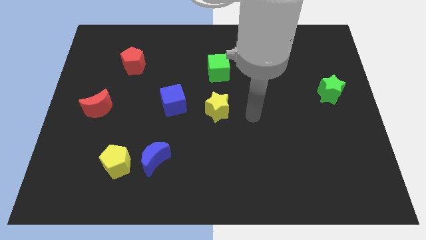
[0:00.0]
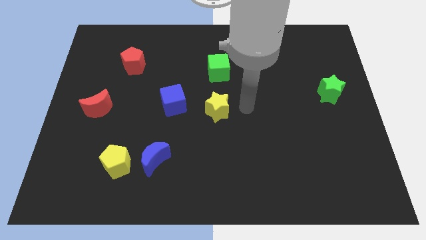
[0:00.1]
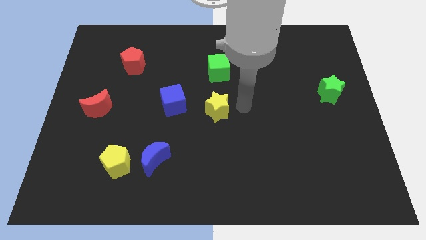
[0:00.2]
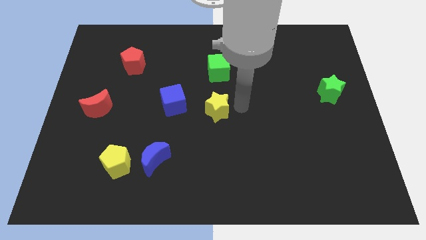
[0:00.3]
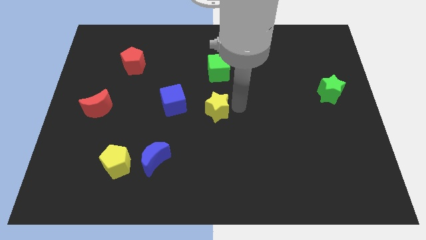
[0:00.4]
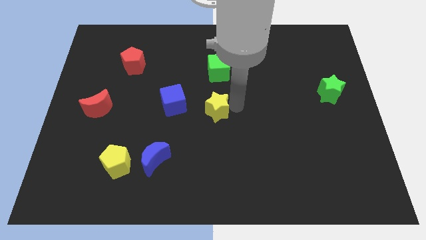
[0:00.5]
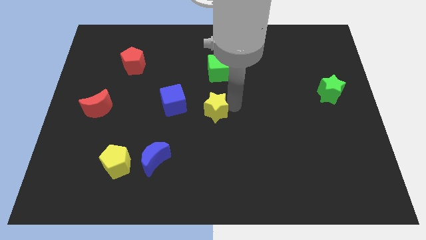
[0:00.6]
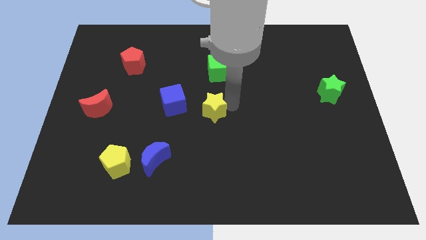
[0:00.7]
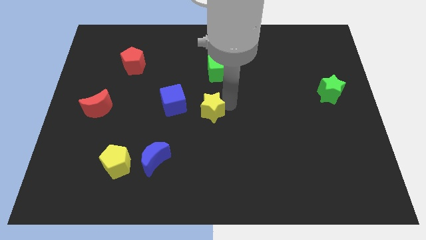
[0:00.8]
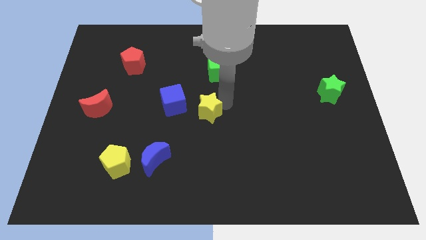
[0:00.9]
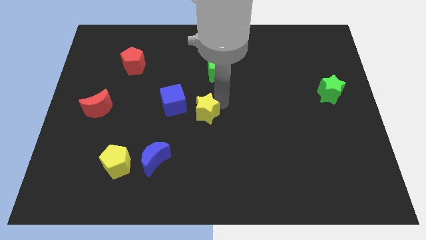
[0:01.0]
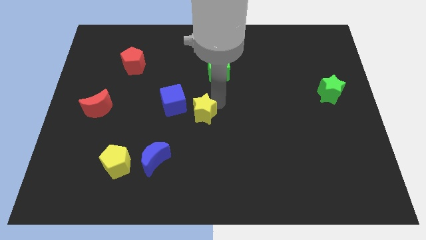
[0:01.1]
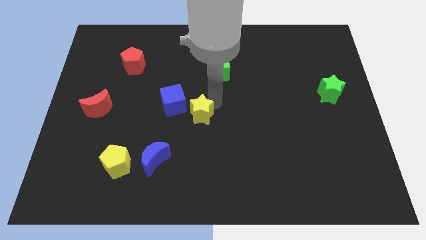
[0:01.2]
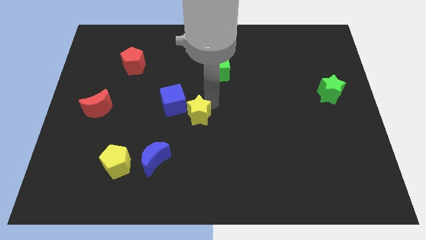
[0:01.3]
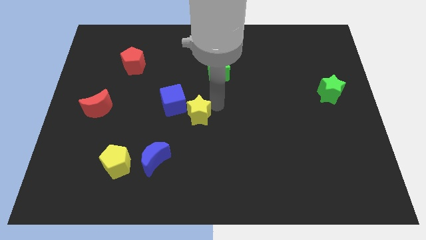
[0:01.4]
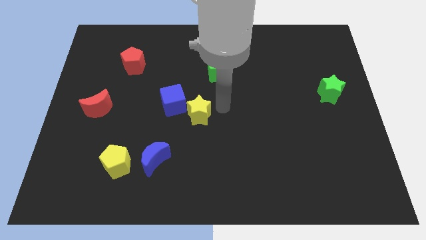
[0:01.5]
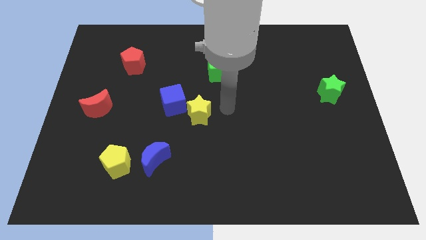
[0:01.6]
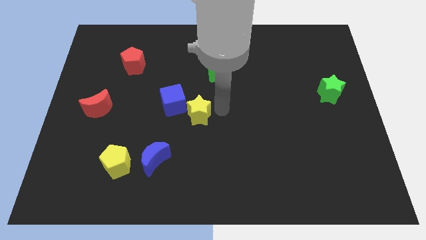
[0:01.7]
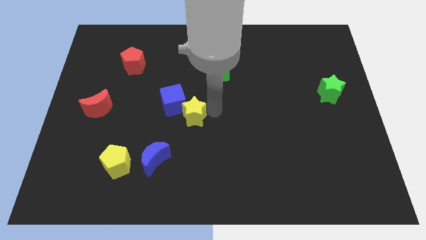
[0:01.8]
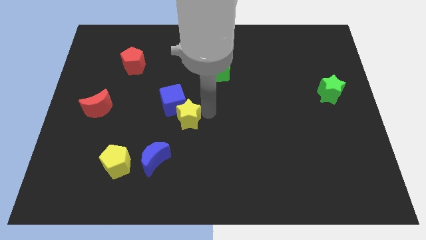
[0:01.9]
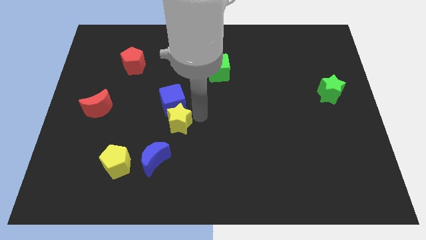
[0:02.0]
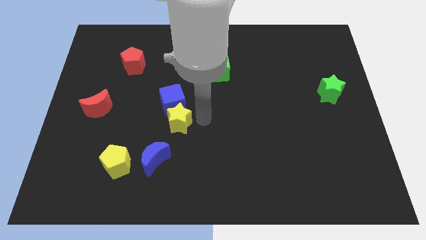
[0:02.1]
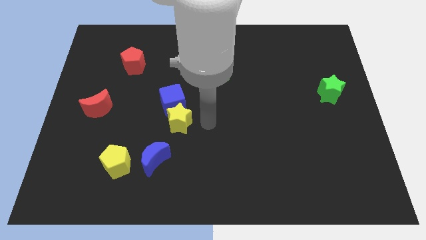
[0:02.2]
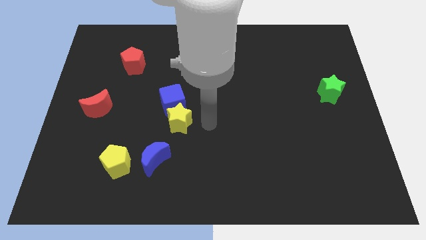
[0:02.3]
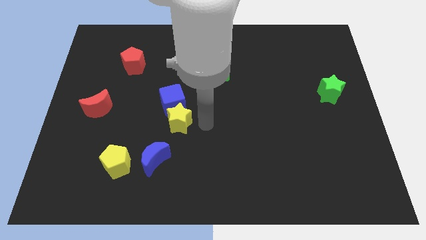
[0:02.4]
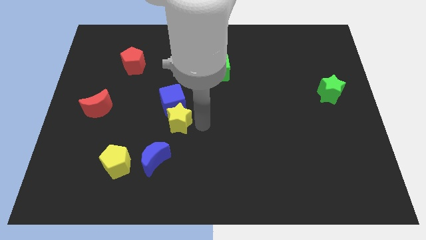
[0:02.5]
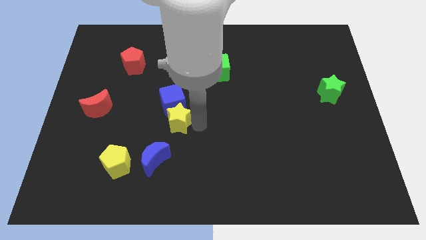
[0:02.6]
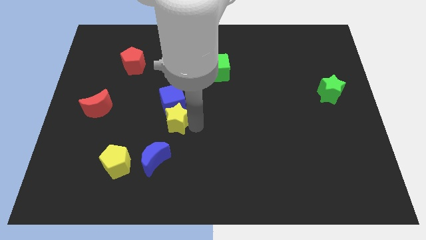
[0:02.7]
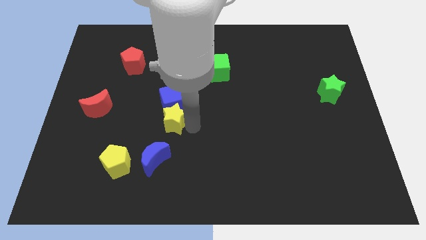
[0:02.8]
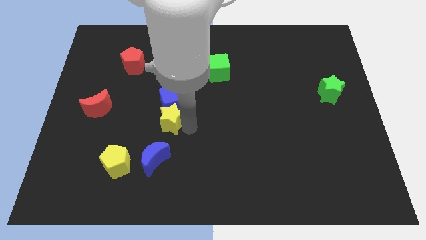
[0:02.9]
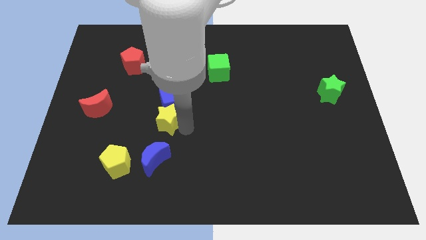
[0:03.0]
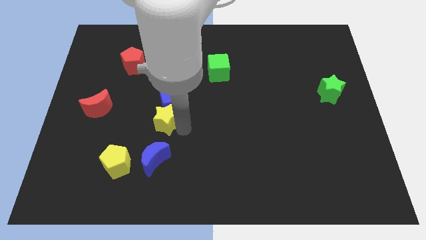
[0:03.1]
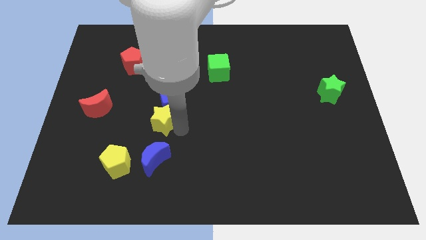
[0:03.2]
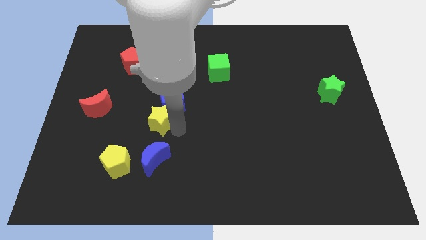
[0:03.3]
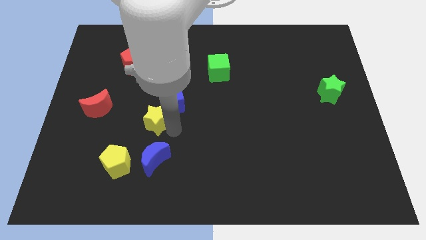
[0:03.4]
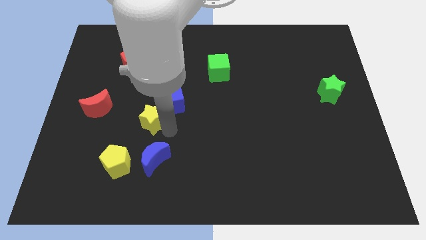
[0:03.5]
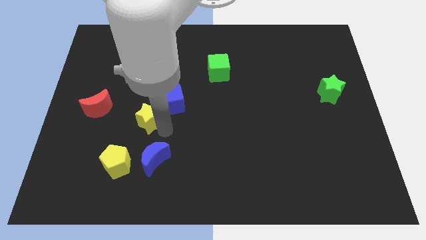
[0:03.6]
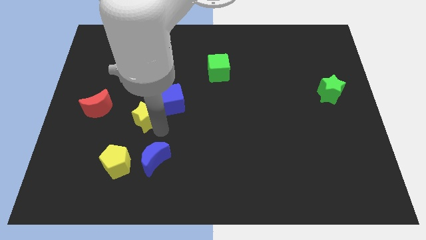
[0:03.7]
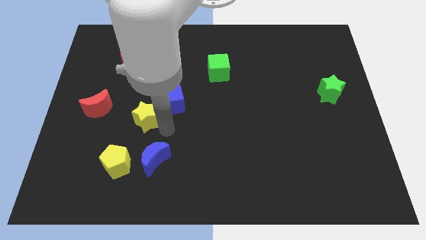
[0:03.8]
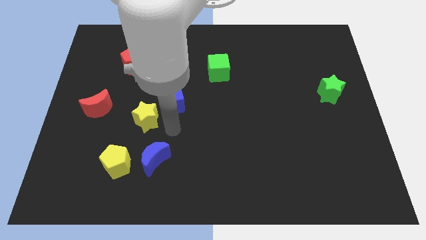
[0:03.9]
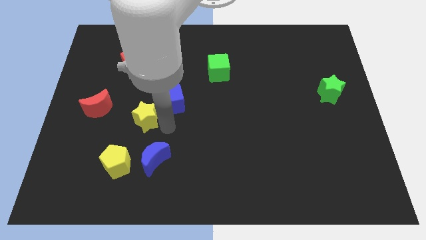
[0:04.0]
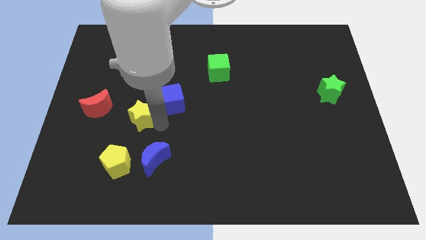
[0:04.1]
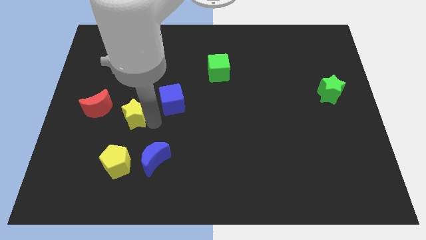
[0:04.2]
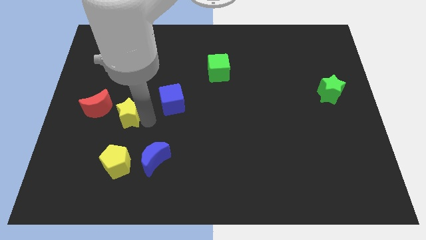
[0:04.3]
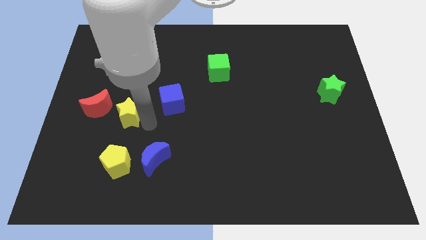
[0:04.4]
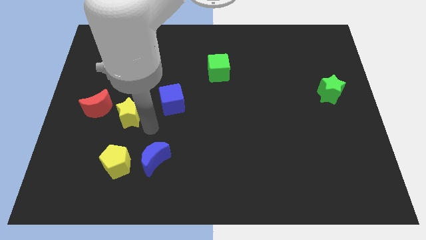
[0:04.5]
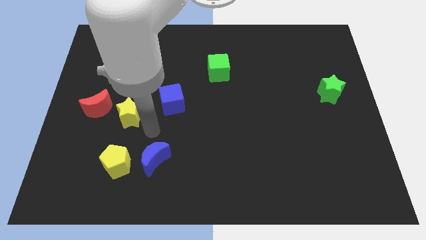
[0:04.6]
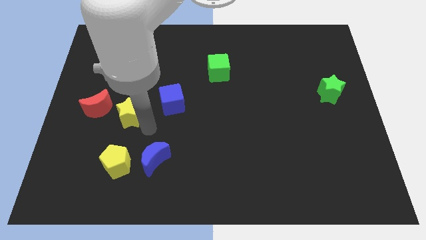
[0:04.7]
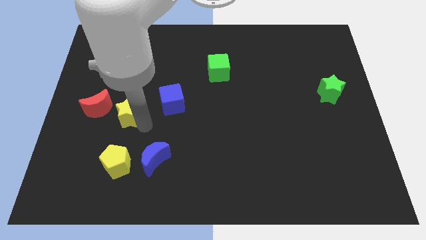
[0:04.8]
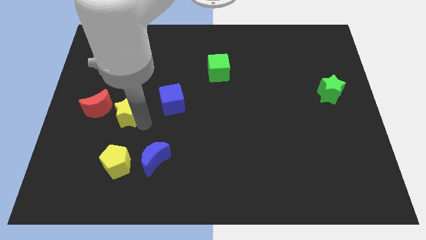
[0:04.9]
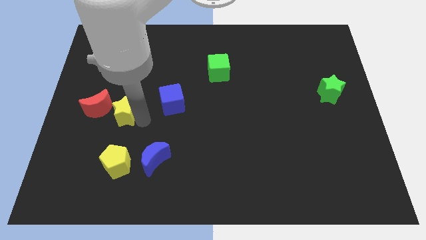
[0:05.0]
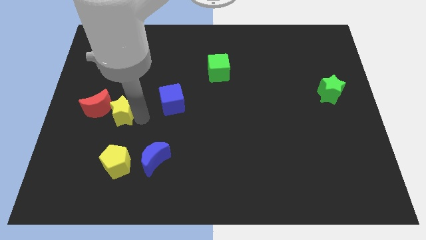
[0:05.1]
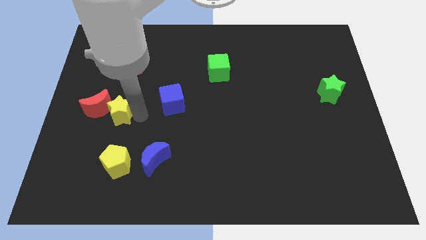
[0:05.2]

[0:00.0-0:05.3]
slide the yellow star to the red moon

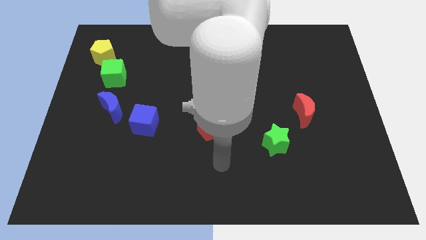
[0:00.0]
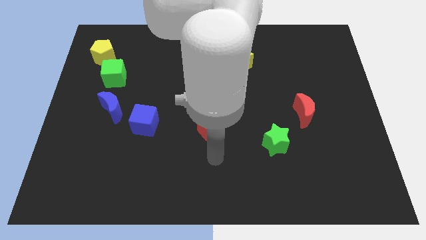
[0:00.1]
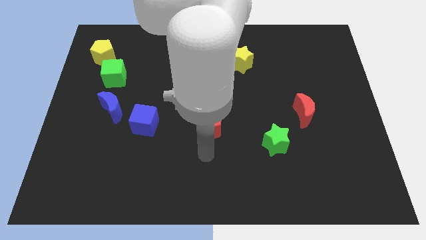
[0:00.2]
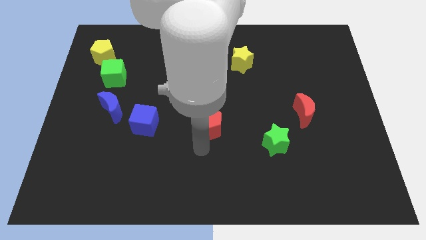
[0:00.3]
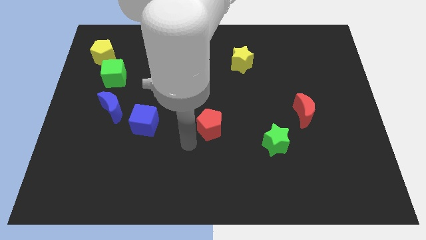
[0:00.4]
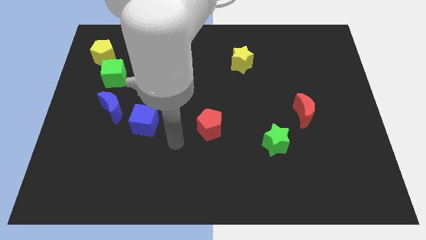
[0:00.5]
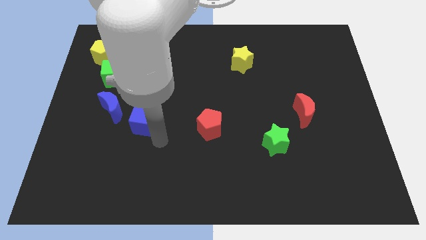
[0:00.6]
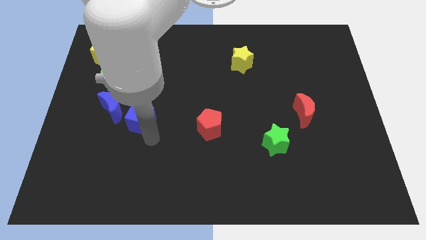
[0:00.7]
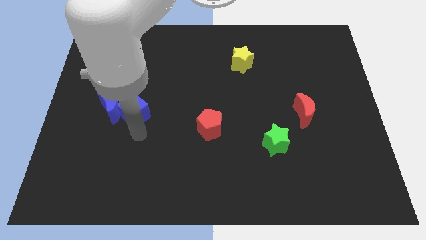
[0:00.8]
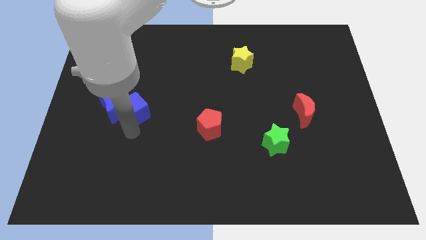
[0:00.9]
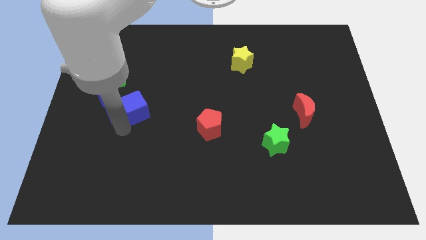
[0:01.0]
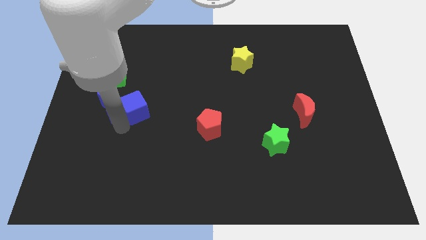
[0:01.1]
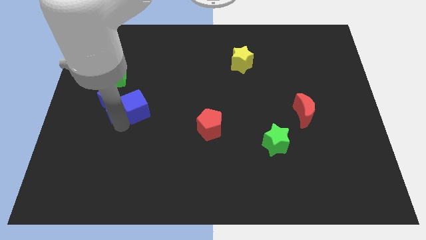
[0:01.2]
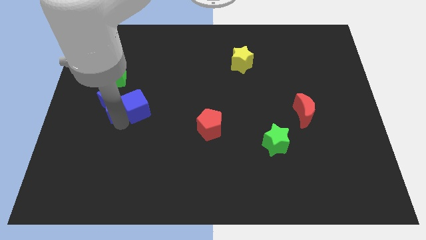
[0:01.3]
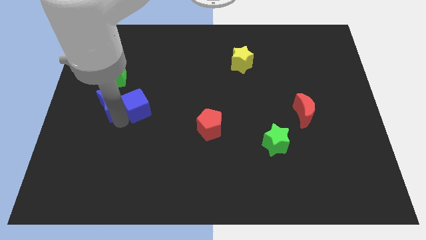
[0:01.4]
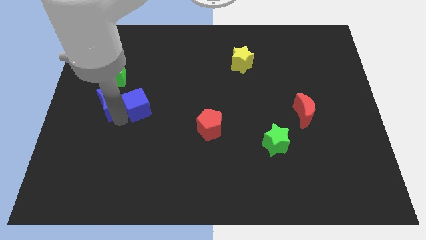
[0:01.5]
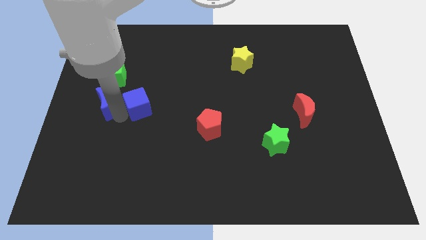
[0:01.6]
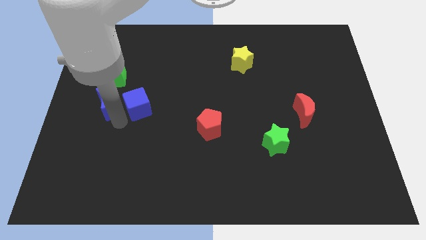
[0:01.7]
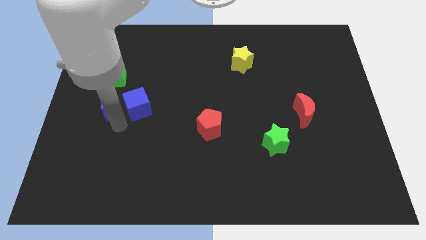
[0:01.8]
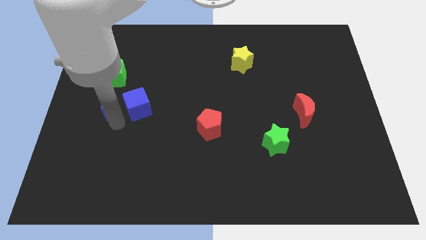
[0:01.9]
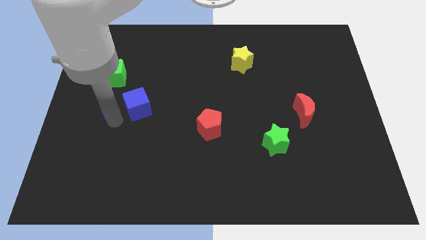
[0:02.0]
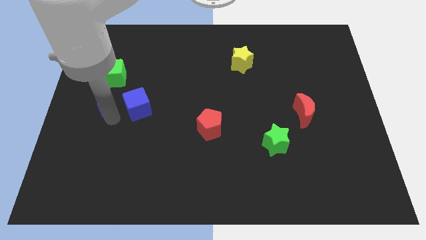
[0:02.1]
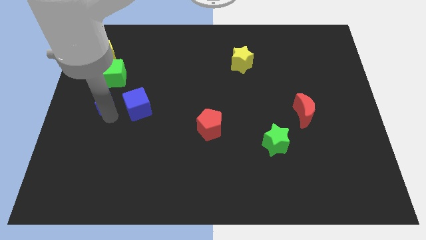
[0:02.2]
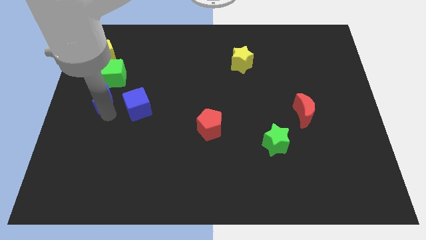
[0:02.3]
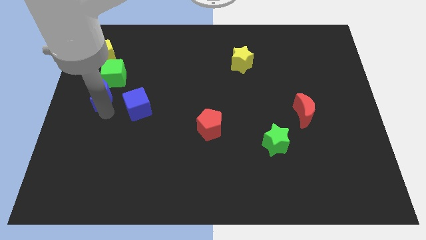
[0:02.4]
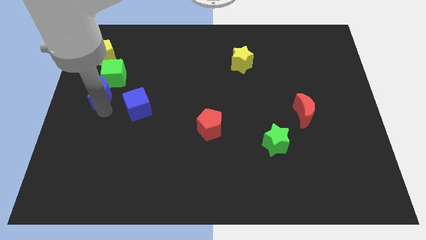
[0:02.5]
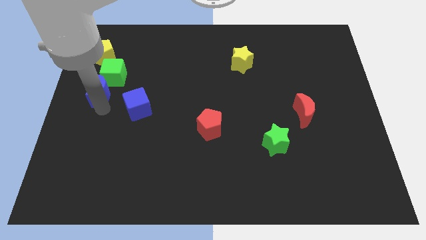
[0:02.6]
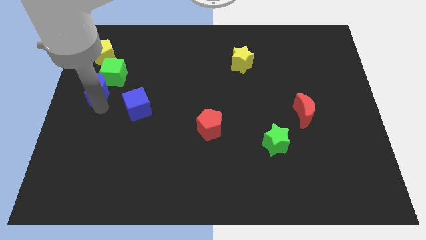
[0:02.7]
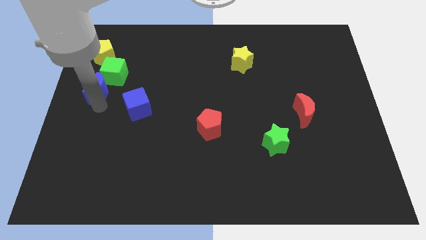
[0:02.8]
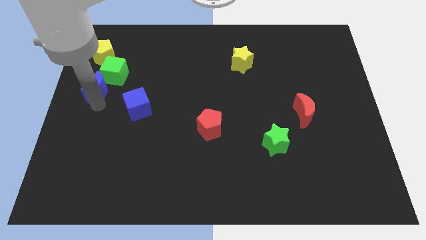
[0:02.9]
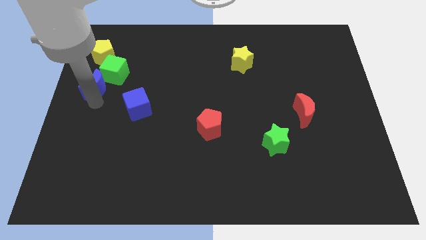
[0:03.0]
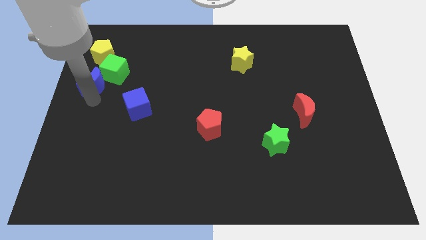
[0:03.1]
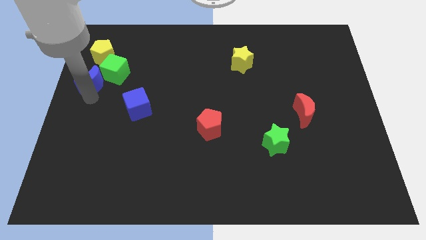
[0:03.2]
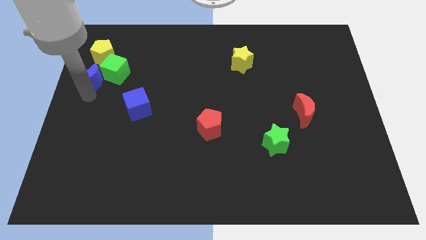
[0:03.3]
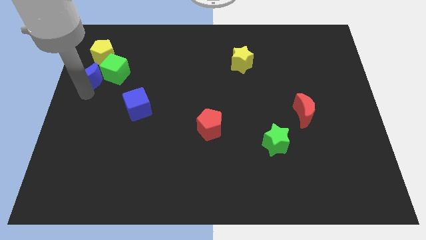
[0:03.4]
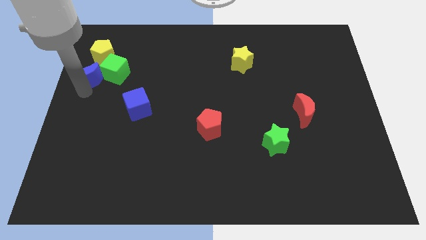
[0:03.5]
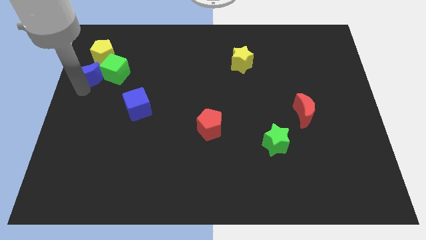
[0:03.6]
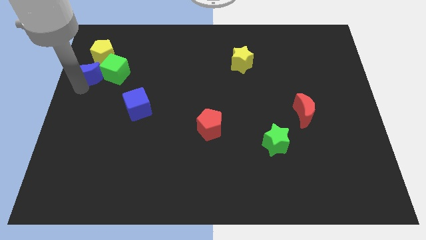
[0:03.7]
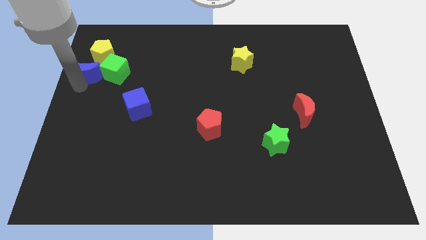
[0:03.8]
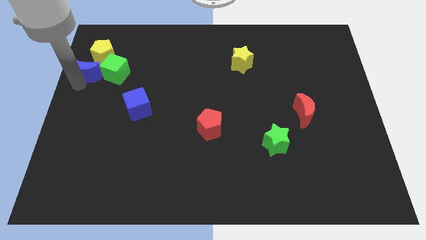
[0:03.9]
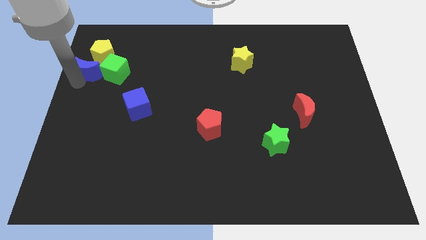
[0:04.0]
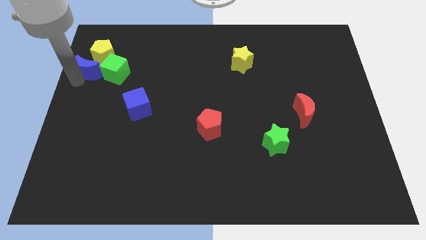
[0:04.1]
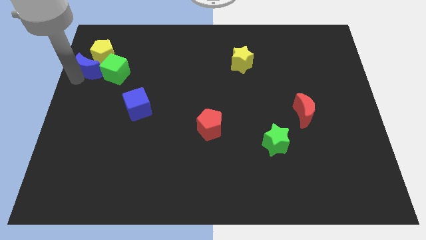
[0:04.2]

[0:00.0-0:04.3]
put the blue moon close to the yellow pentagon
